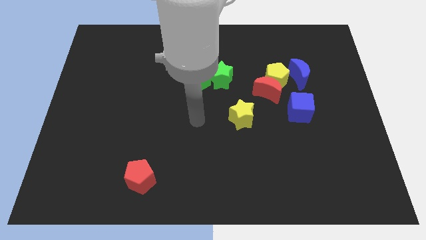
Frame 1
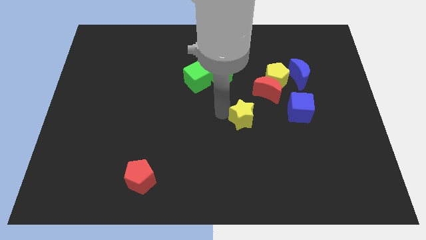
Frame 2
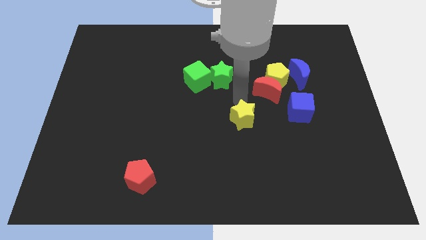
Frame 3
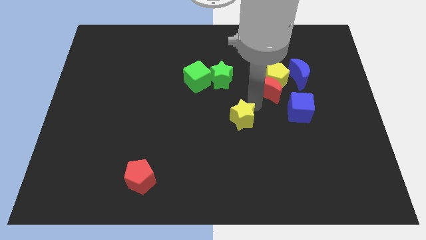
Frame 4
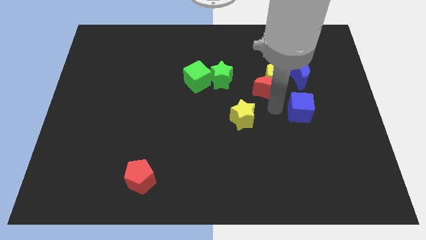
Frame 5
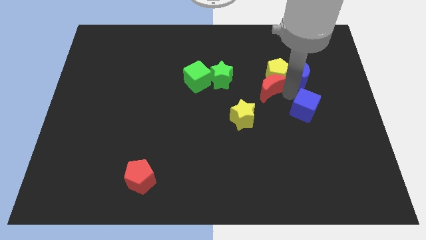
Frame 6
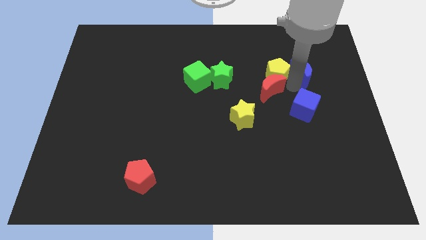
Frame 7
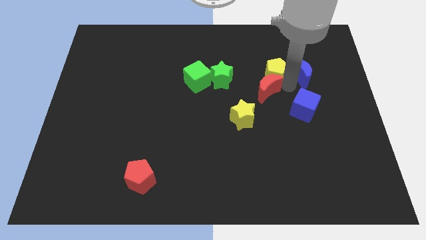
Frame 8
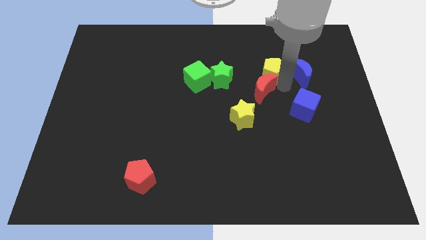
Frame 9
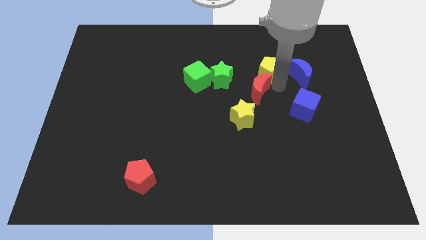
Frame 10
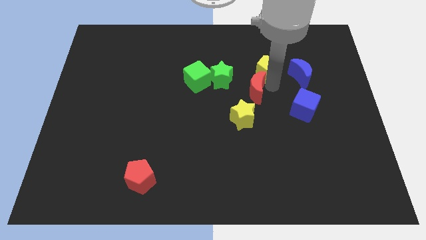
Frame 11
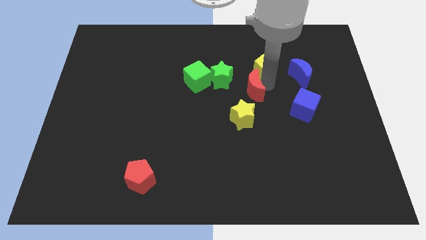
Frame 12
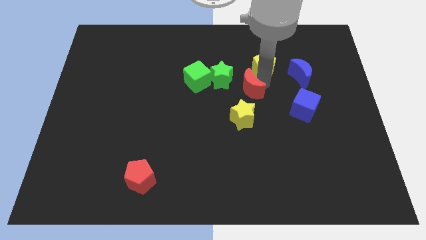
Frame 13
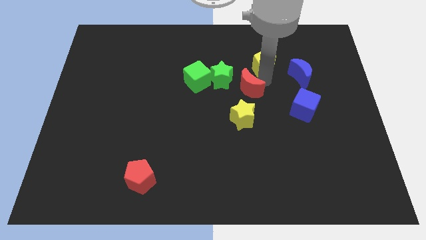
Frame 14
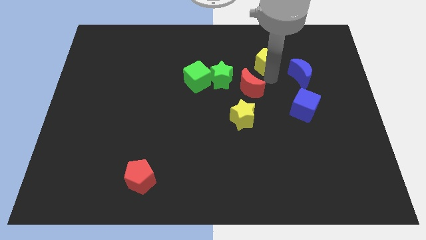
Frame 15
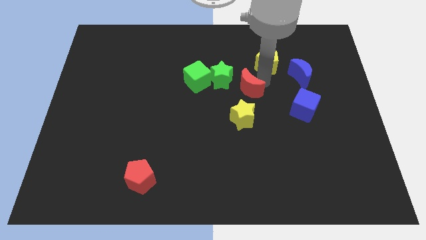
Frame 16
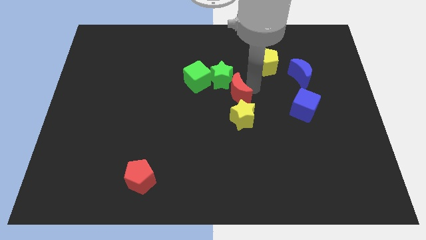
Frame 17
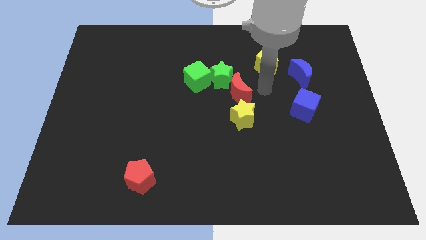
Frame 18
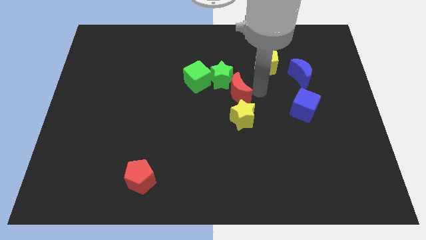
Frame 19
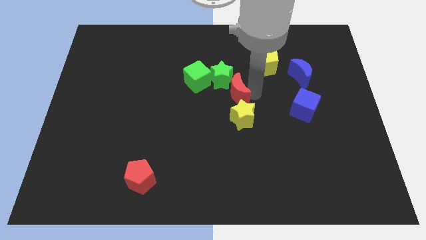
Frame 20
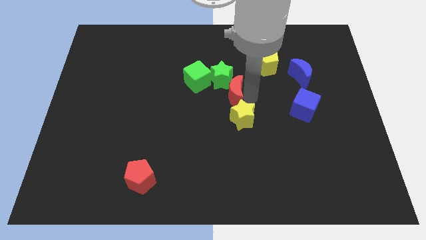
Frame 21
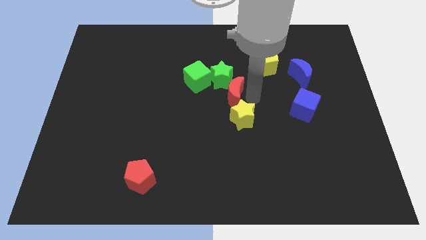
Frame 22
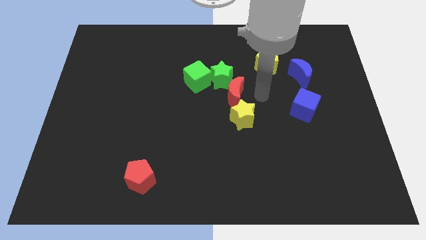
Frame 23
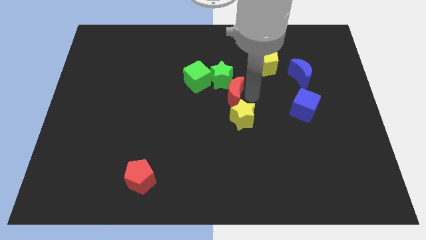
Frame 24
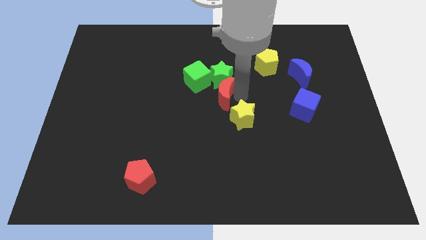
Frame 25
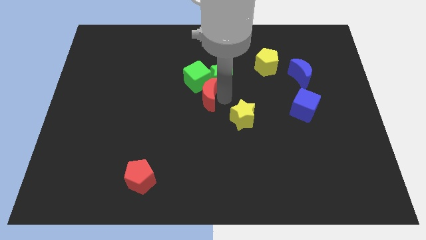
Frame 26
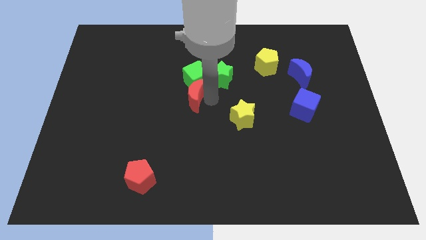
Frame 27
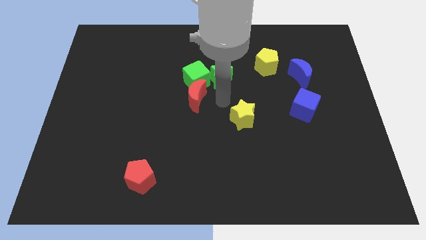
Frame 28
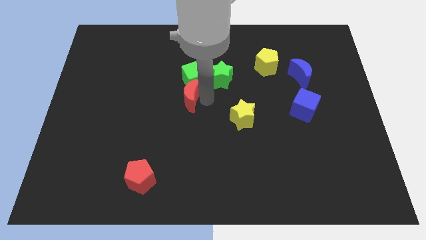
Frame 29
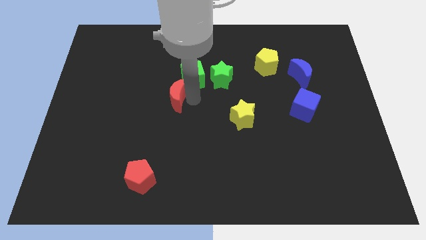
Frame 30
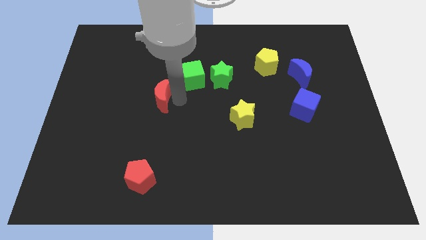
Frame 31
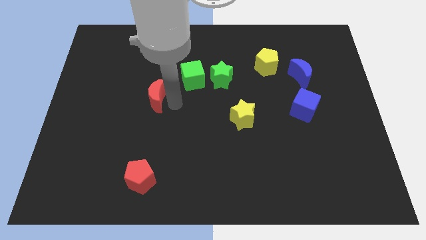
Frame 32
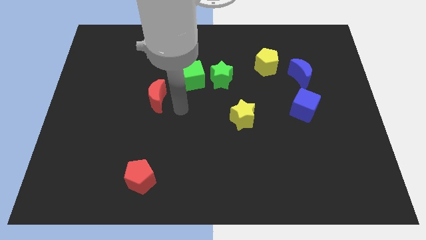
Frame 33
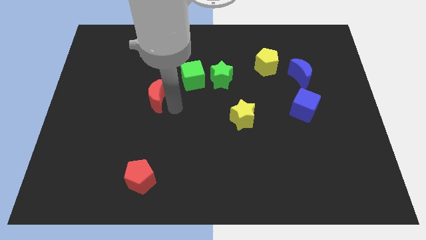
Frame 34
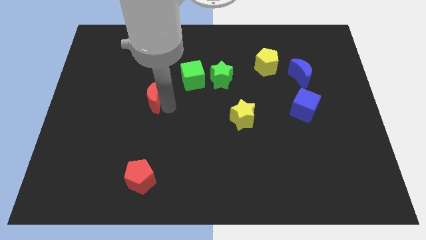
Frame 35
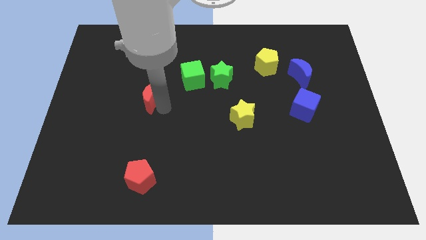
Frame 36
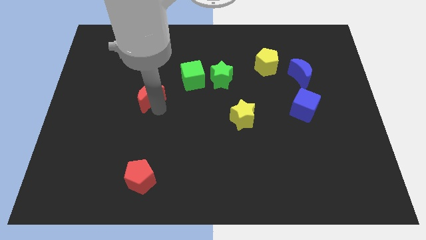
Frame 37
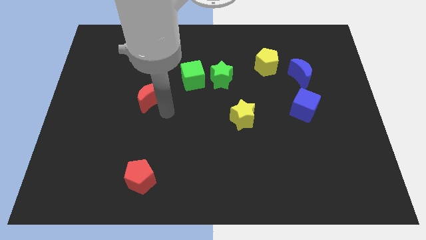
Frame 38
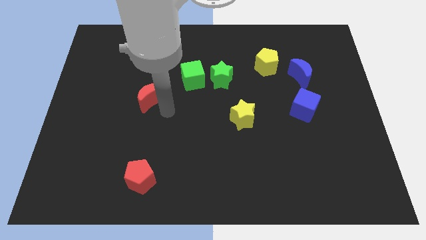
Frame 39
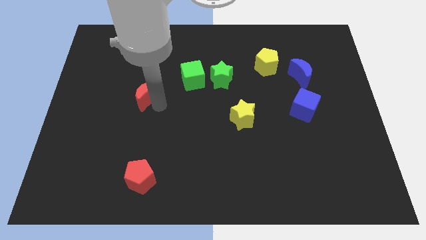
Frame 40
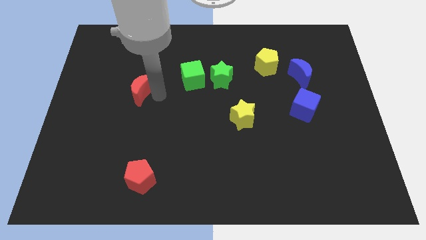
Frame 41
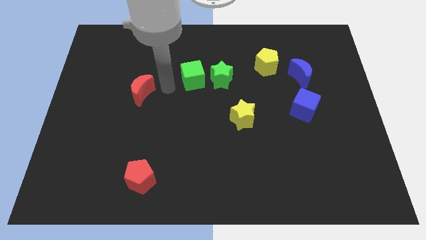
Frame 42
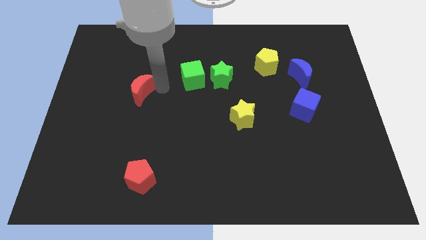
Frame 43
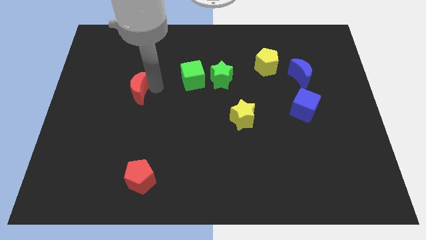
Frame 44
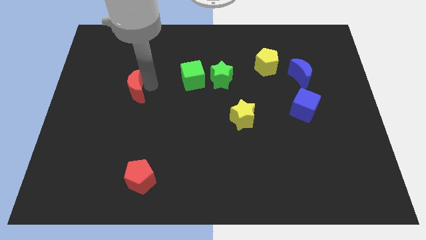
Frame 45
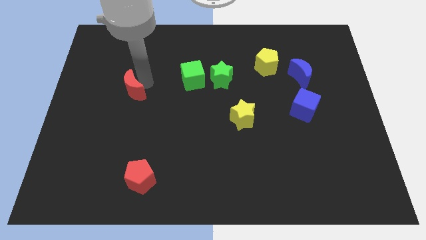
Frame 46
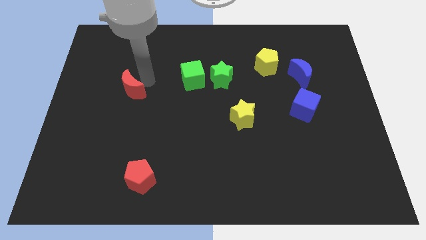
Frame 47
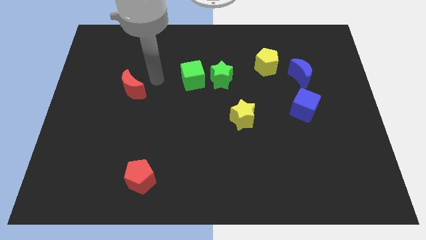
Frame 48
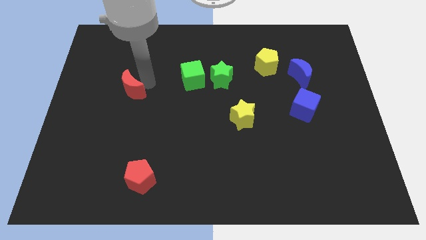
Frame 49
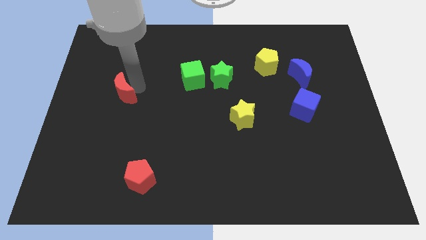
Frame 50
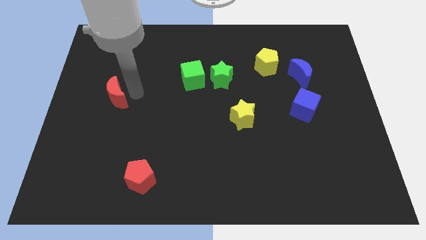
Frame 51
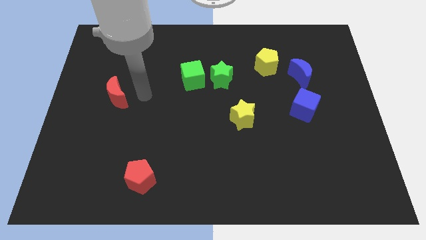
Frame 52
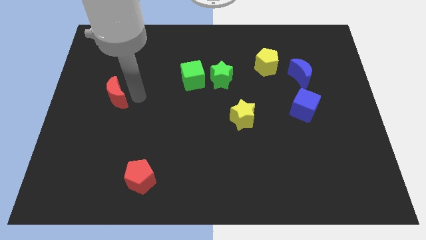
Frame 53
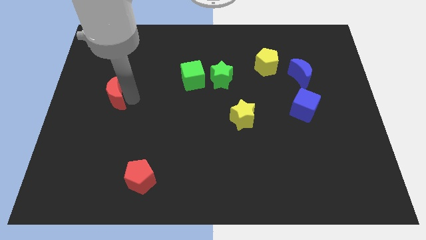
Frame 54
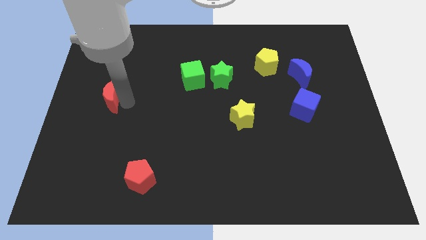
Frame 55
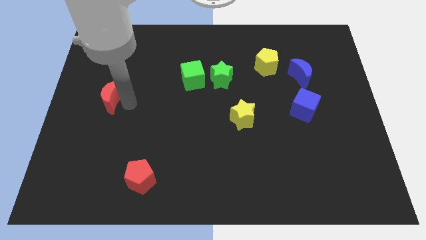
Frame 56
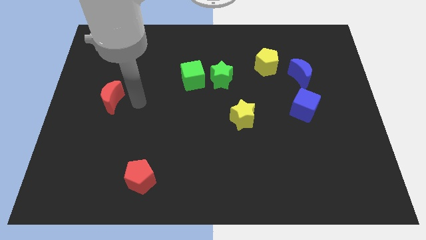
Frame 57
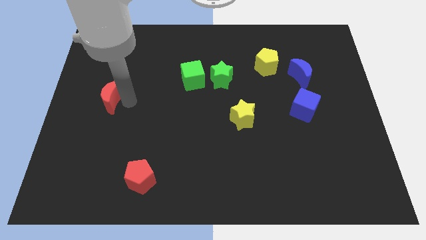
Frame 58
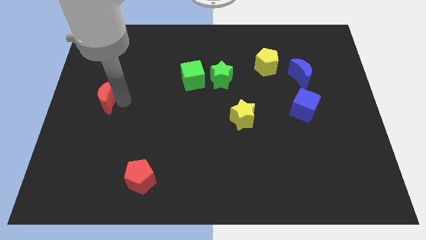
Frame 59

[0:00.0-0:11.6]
push the red moon to the center left
